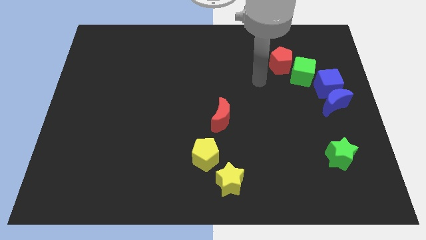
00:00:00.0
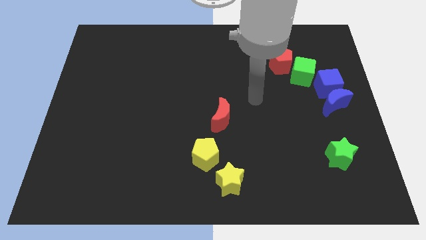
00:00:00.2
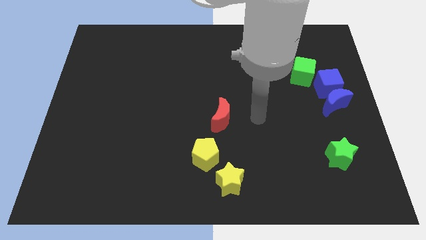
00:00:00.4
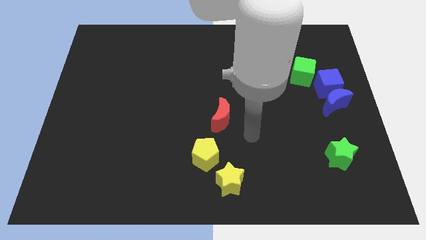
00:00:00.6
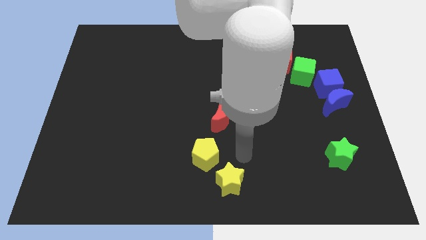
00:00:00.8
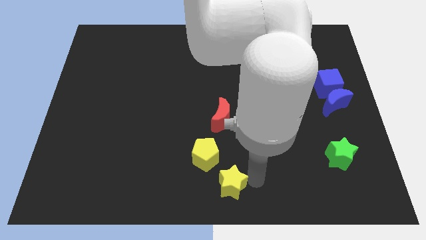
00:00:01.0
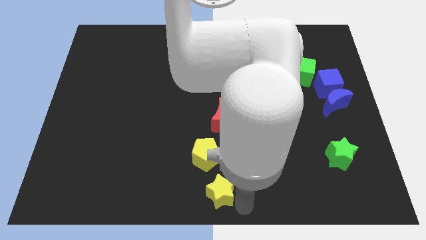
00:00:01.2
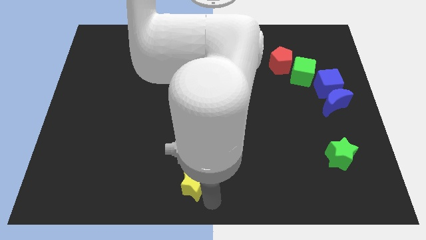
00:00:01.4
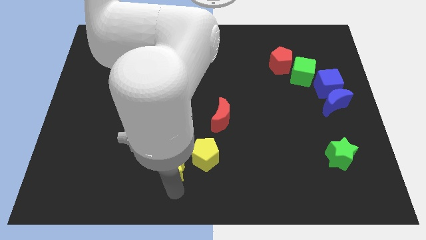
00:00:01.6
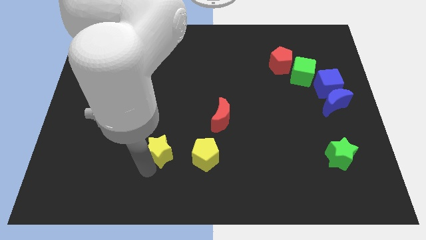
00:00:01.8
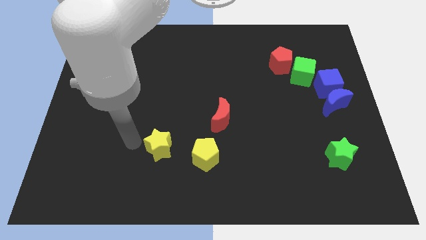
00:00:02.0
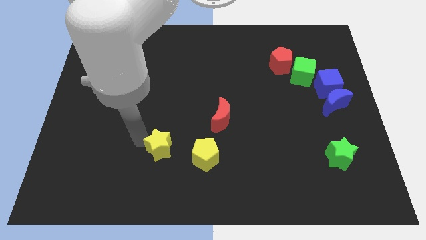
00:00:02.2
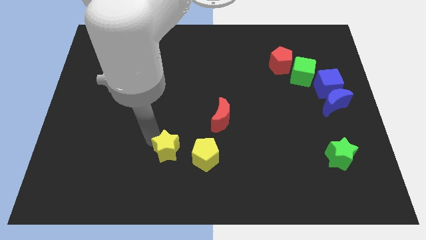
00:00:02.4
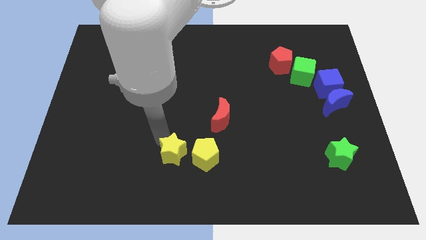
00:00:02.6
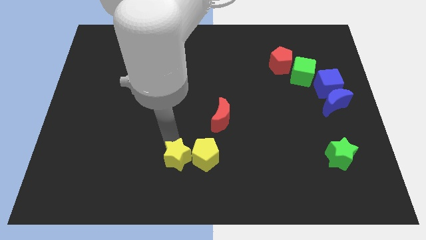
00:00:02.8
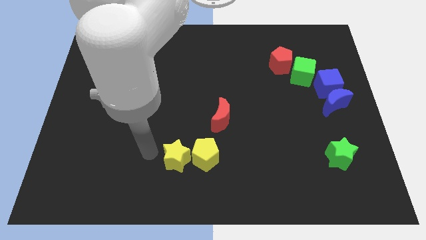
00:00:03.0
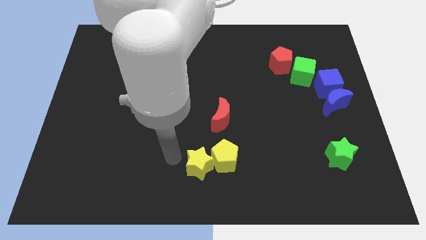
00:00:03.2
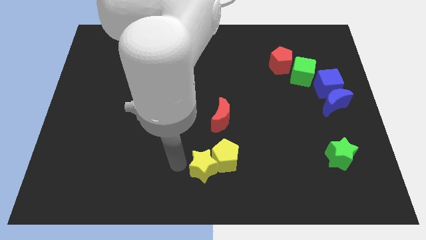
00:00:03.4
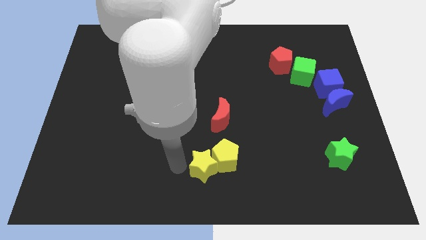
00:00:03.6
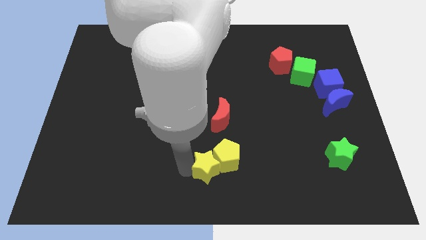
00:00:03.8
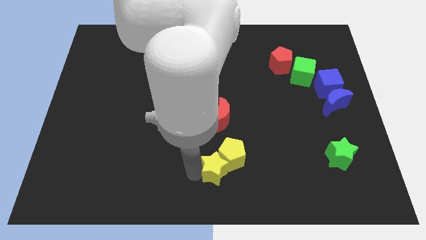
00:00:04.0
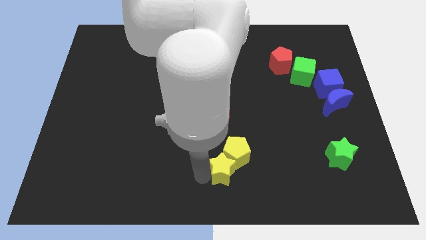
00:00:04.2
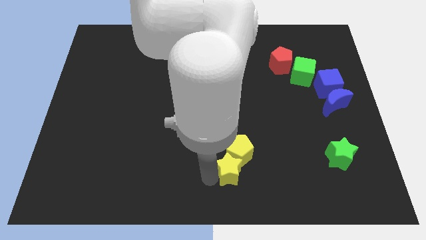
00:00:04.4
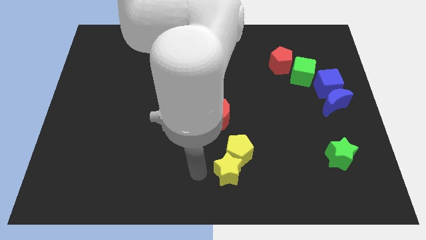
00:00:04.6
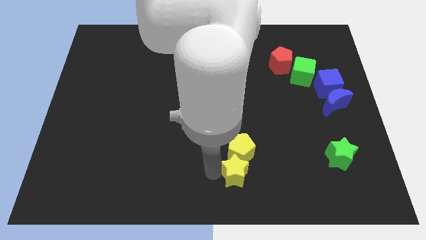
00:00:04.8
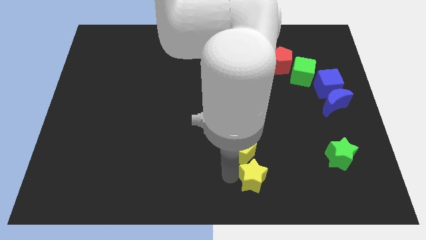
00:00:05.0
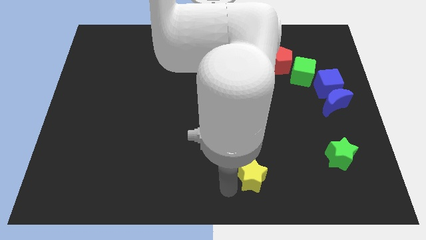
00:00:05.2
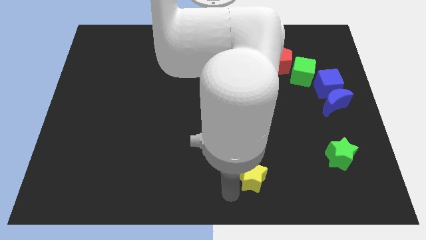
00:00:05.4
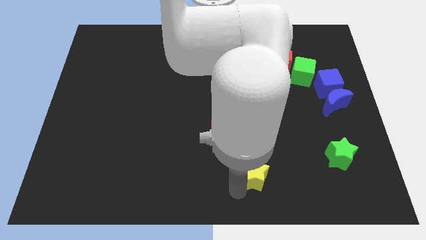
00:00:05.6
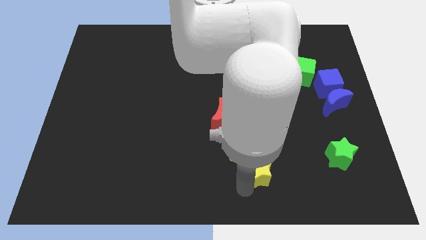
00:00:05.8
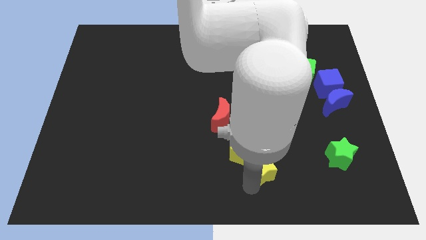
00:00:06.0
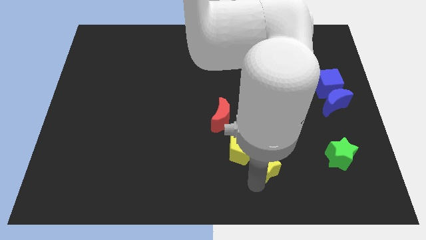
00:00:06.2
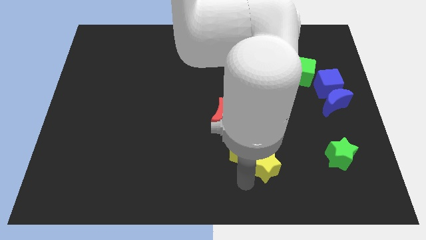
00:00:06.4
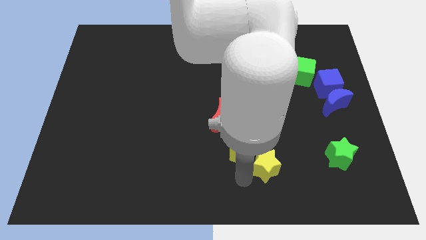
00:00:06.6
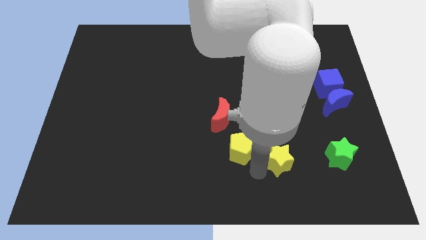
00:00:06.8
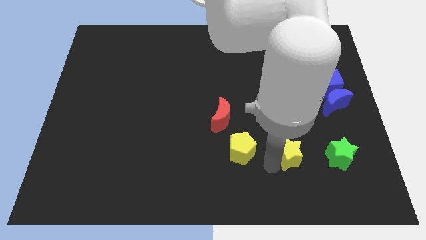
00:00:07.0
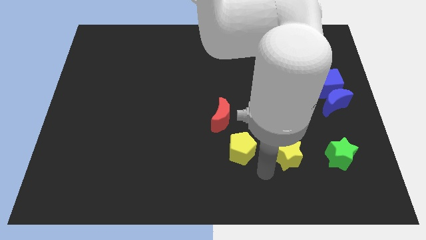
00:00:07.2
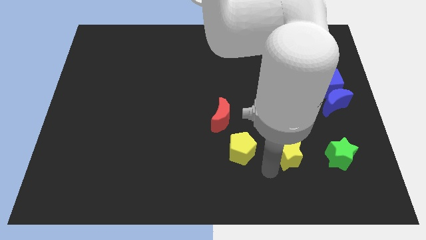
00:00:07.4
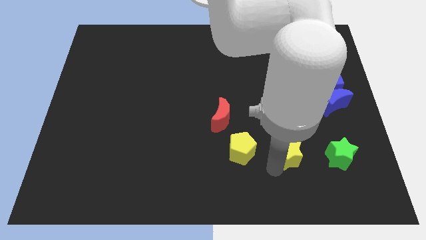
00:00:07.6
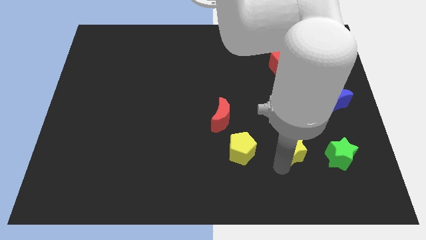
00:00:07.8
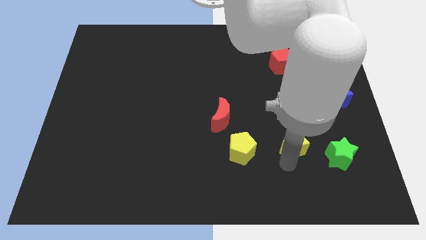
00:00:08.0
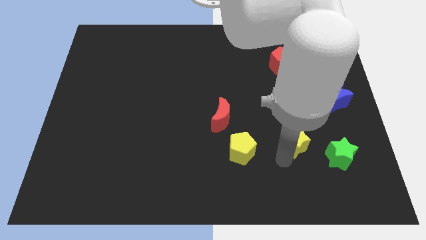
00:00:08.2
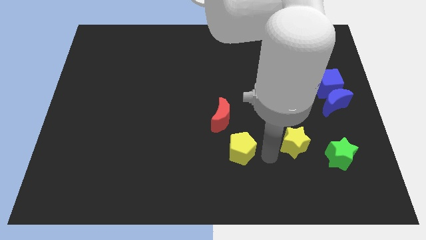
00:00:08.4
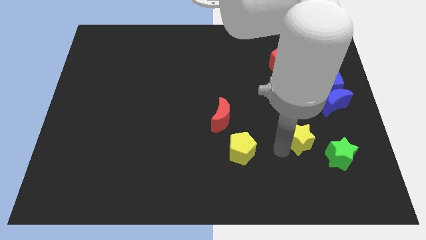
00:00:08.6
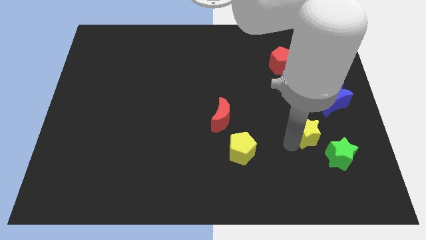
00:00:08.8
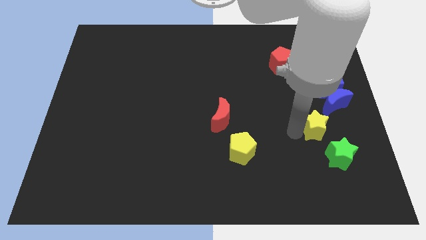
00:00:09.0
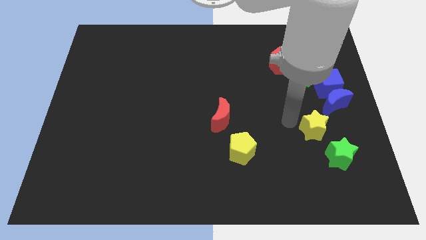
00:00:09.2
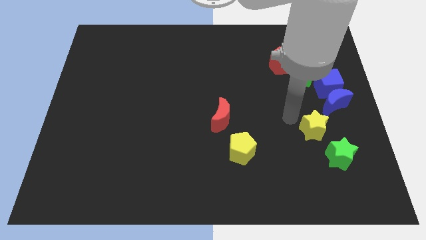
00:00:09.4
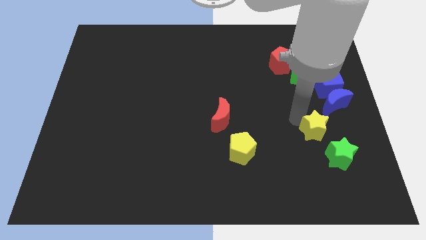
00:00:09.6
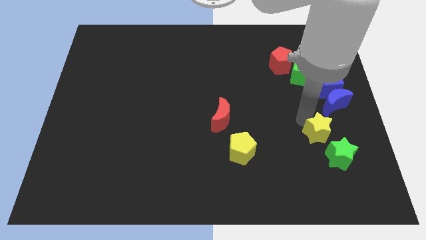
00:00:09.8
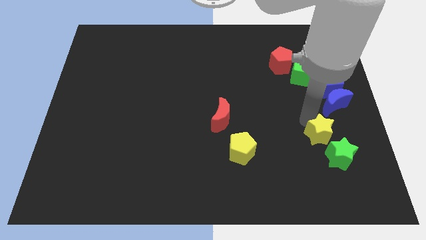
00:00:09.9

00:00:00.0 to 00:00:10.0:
move the yellow star to the bottom of the blue moon

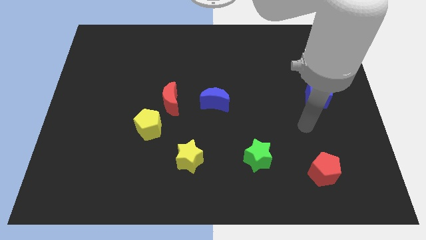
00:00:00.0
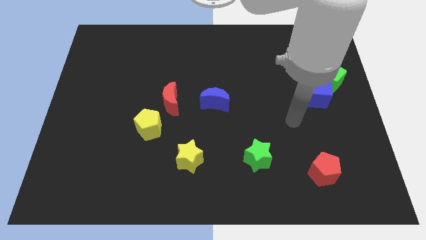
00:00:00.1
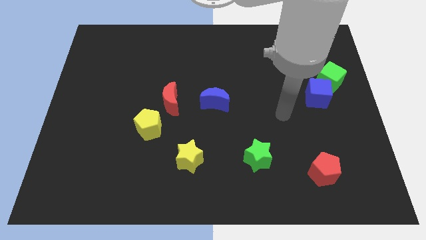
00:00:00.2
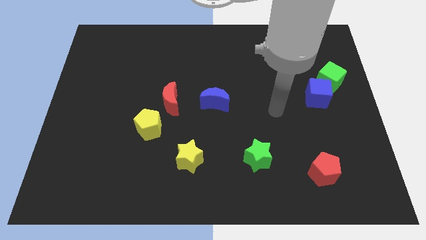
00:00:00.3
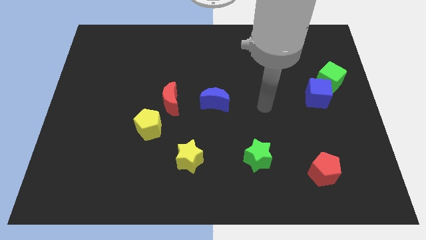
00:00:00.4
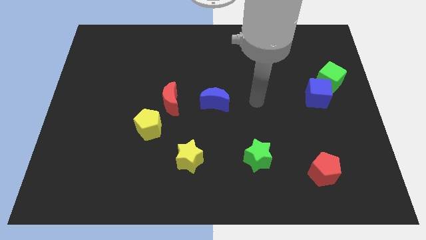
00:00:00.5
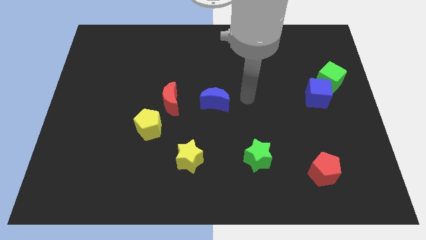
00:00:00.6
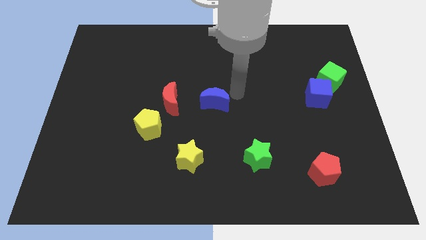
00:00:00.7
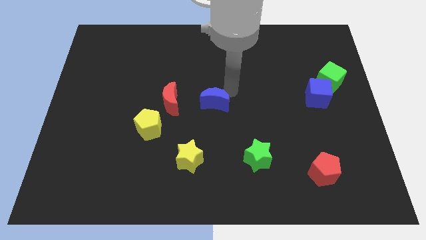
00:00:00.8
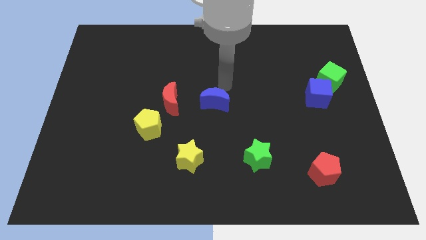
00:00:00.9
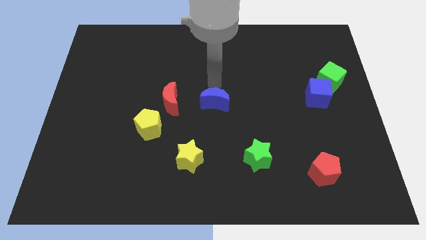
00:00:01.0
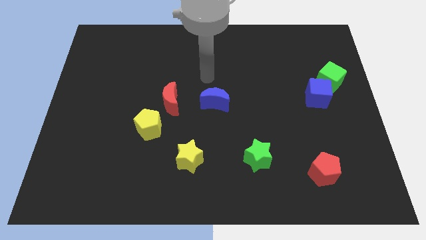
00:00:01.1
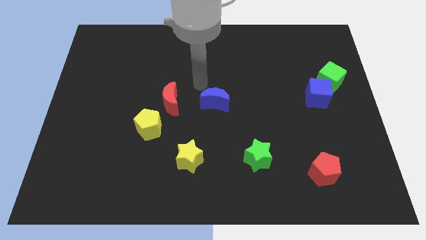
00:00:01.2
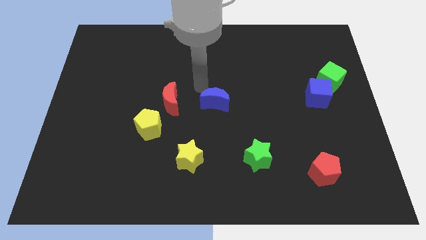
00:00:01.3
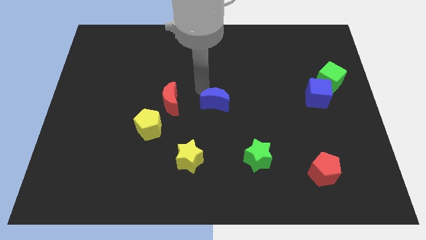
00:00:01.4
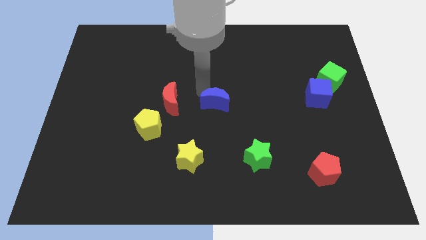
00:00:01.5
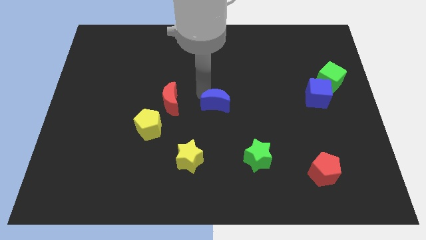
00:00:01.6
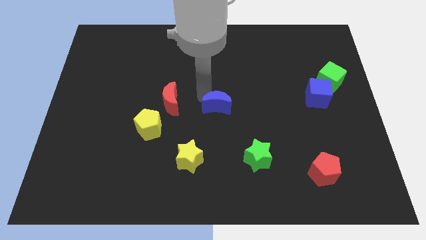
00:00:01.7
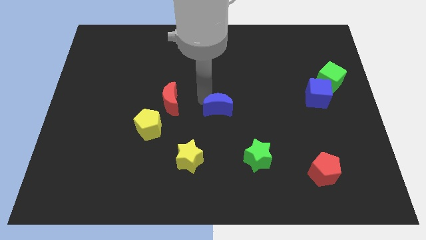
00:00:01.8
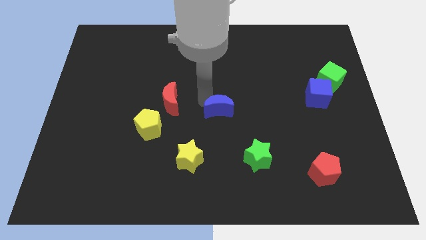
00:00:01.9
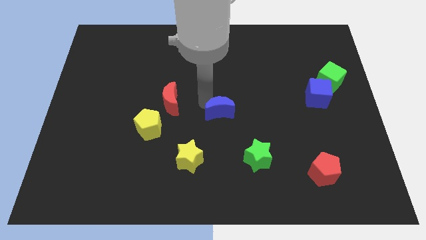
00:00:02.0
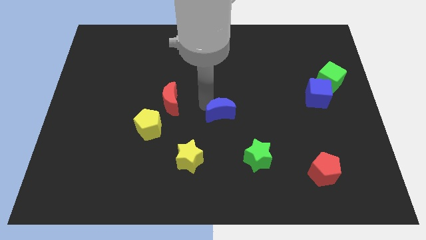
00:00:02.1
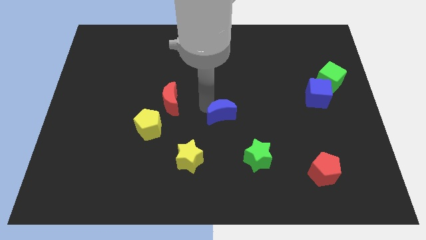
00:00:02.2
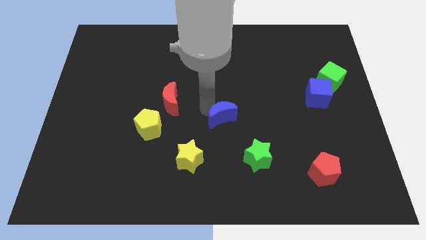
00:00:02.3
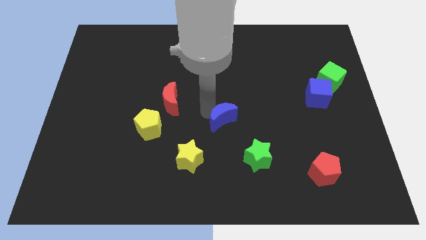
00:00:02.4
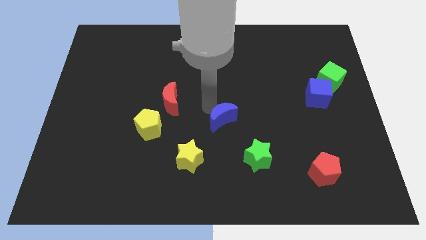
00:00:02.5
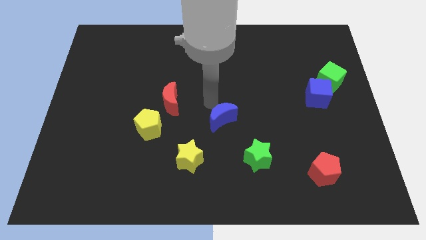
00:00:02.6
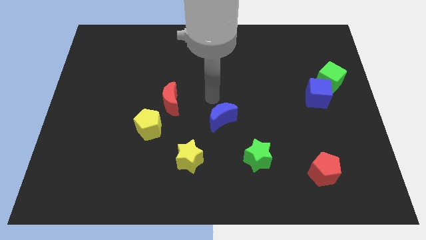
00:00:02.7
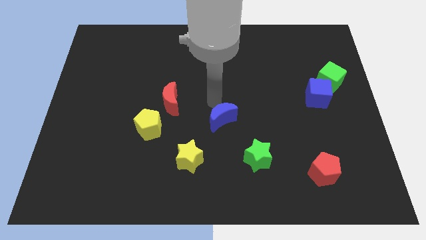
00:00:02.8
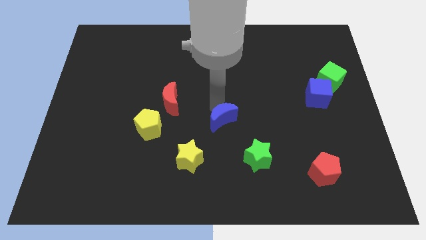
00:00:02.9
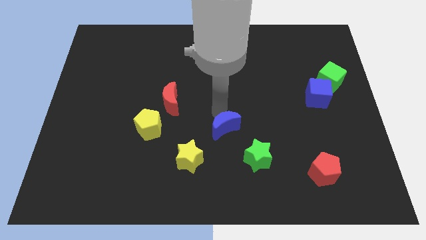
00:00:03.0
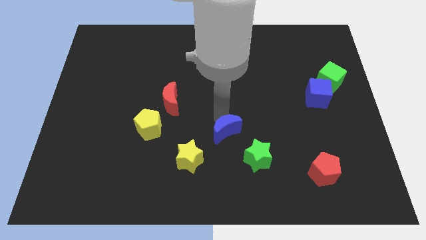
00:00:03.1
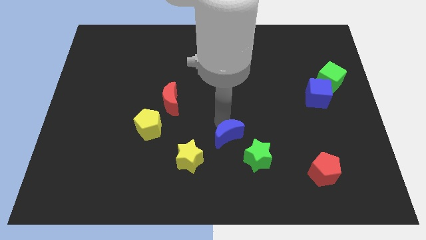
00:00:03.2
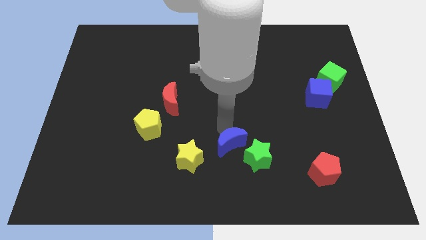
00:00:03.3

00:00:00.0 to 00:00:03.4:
move the blue moon just right of the yellow star

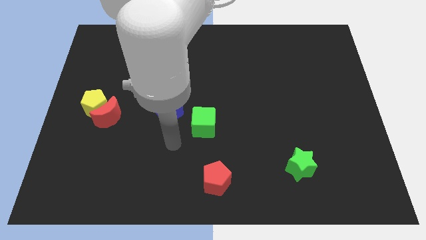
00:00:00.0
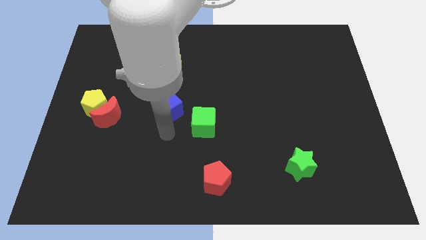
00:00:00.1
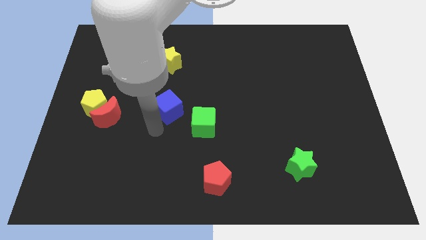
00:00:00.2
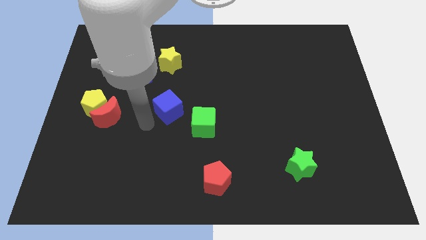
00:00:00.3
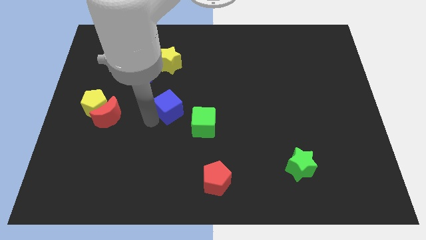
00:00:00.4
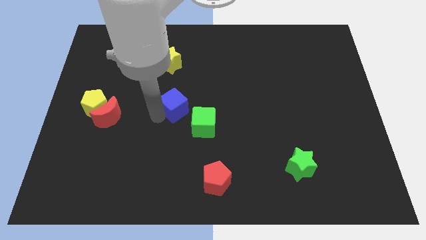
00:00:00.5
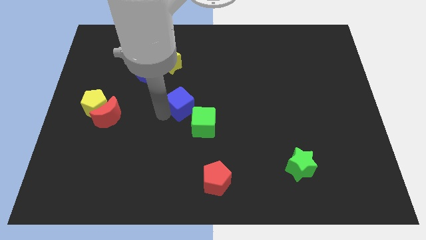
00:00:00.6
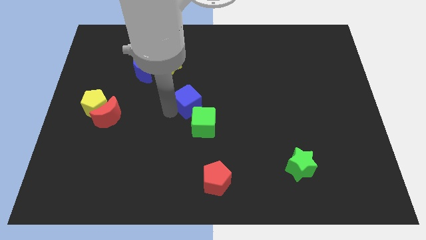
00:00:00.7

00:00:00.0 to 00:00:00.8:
push the blue cube to the top of the green cube
